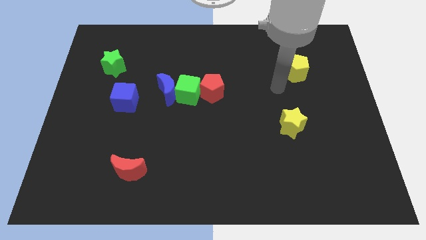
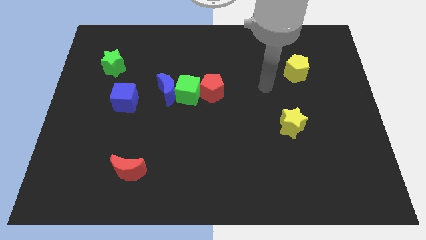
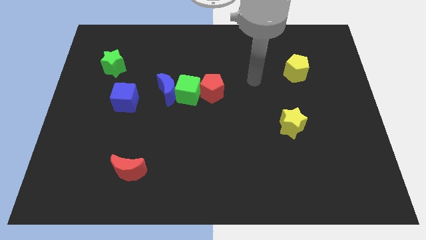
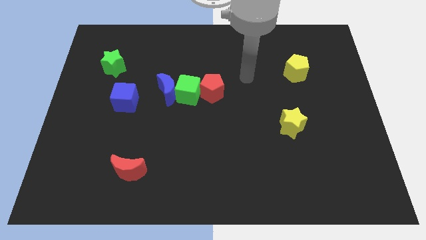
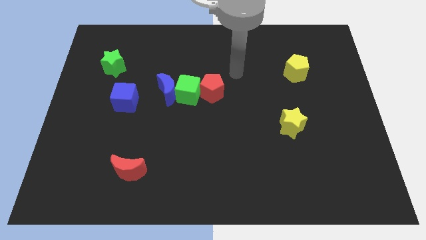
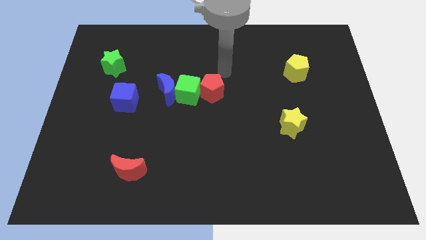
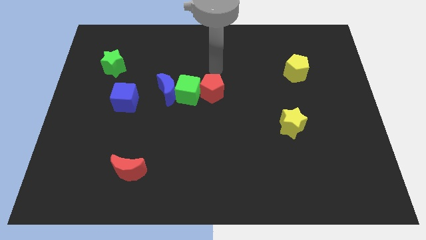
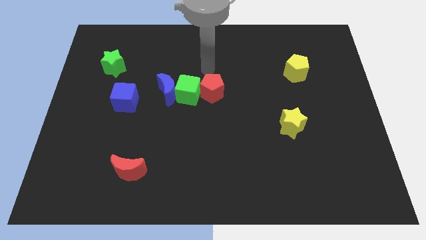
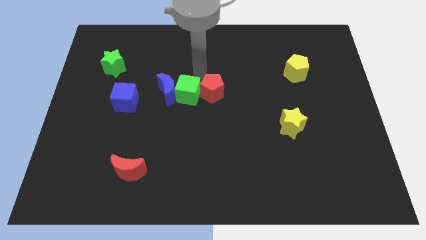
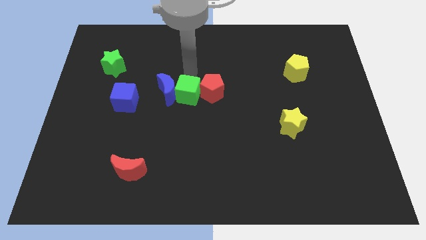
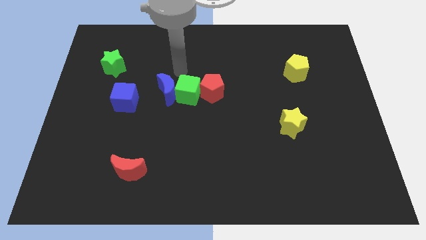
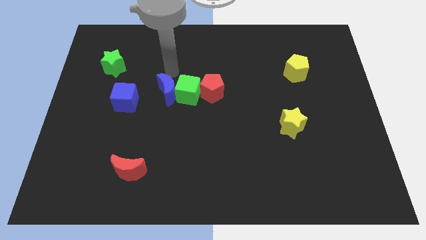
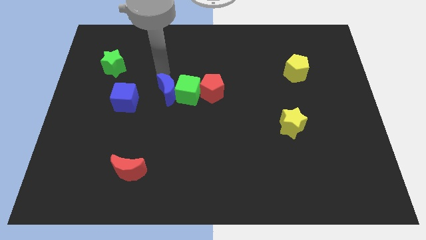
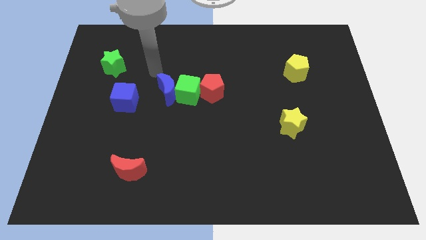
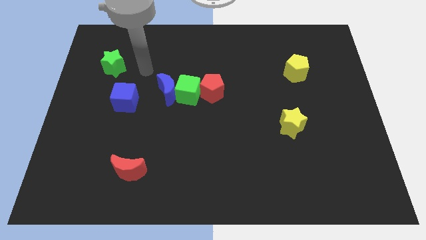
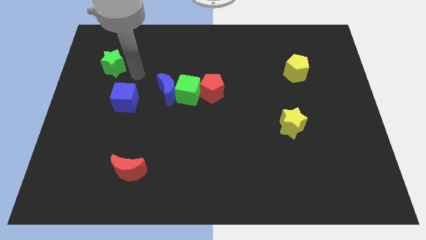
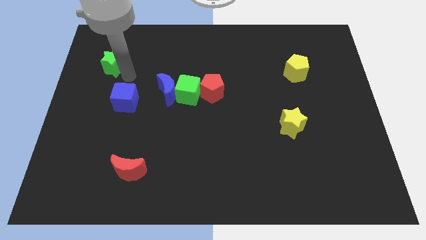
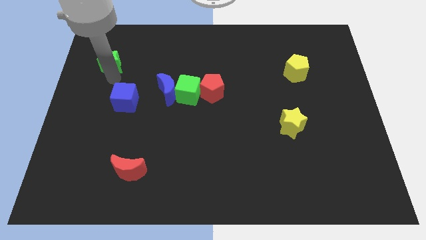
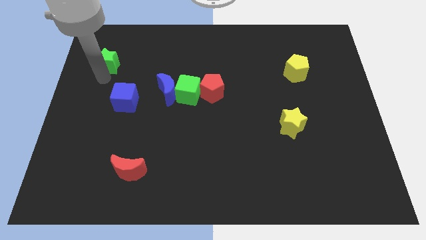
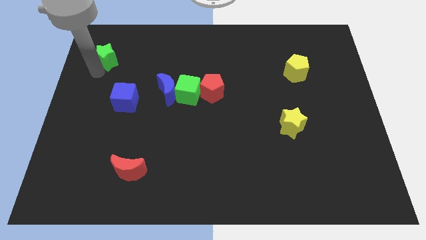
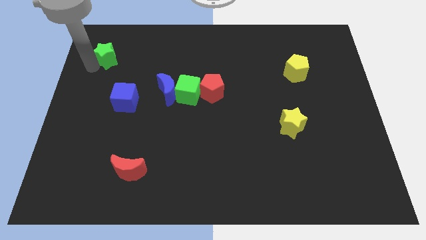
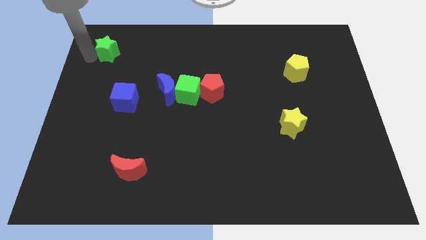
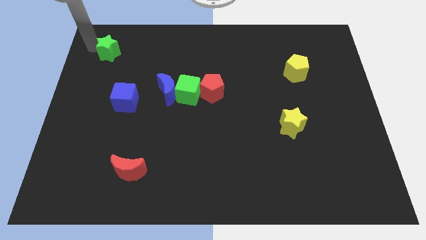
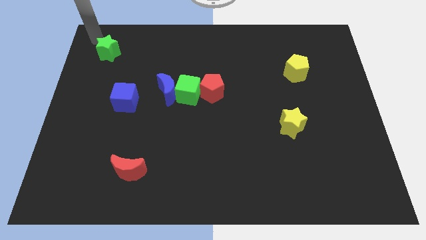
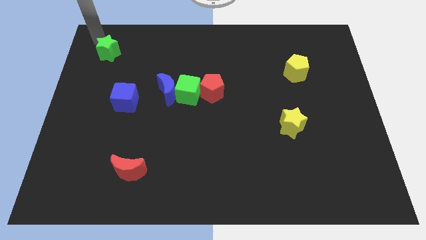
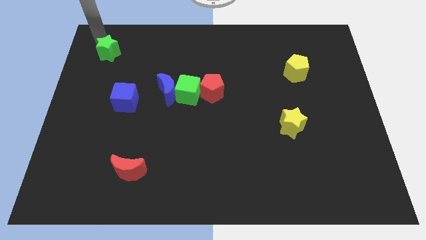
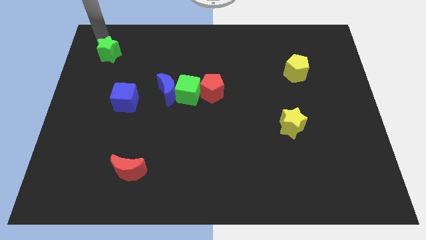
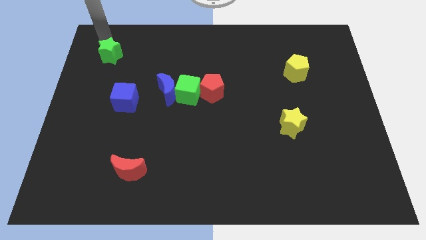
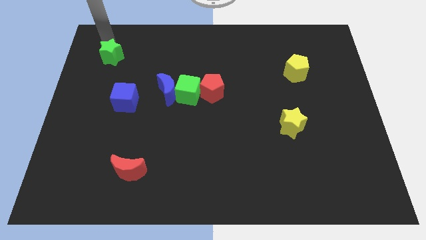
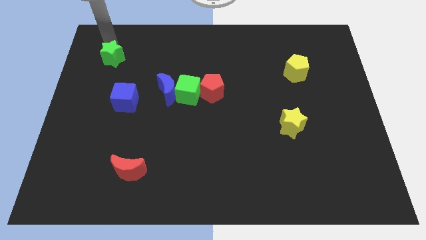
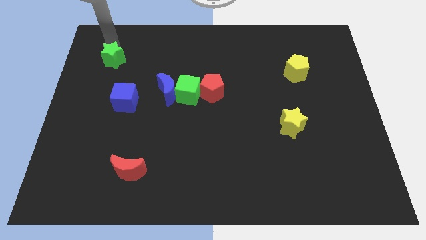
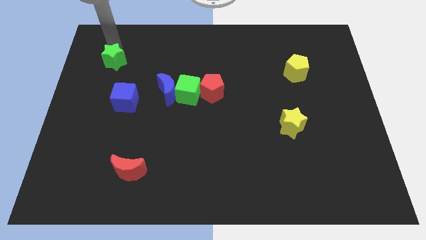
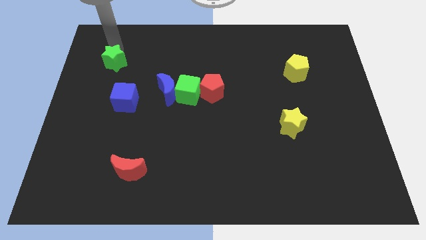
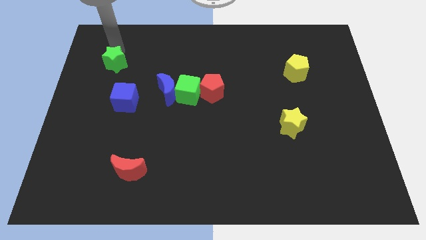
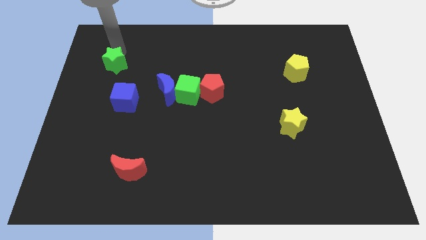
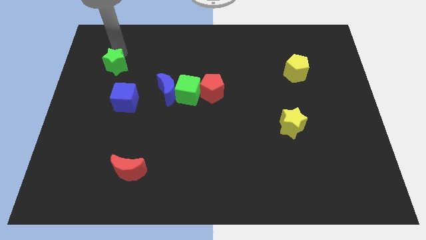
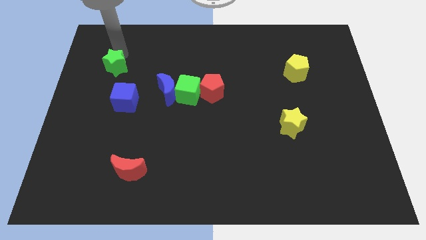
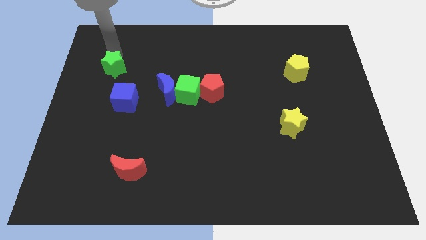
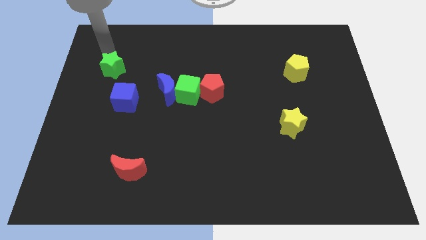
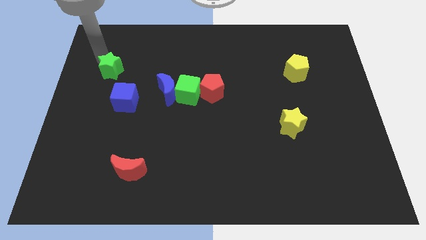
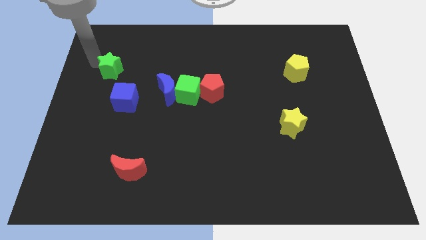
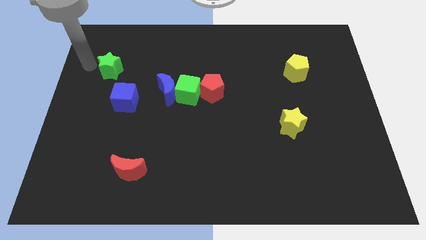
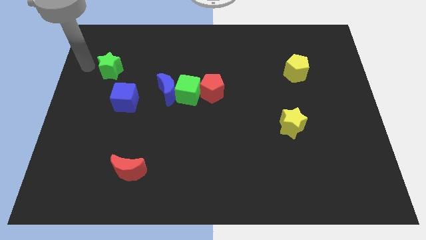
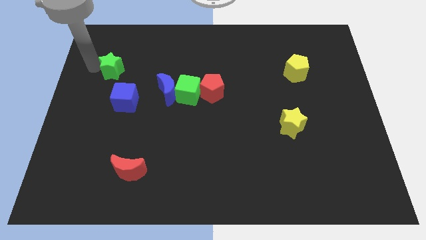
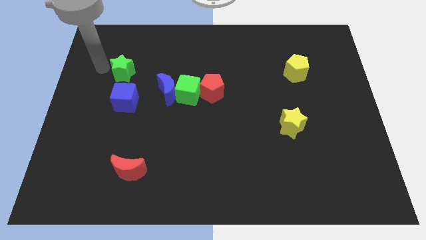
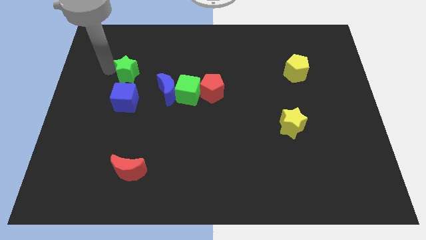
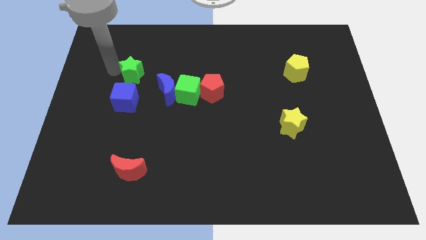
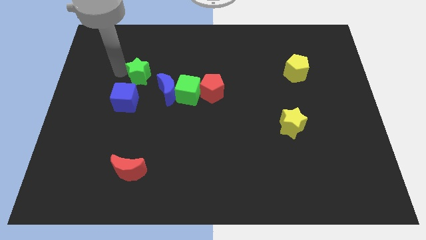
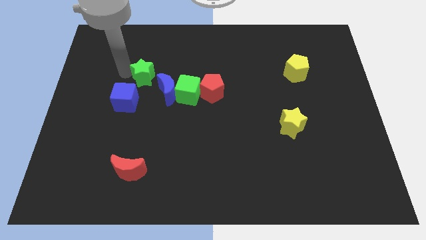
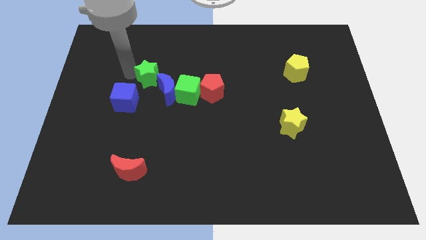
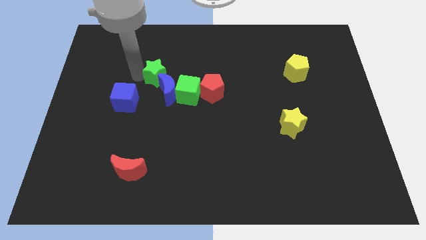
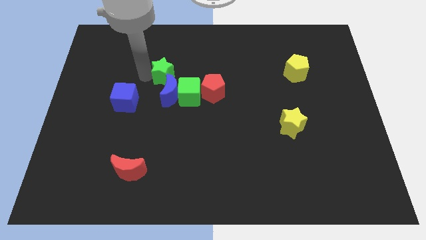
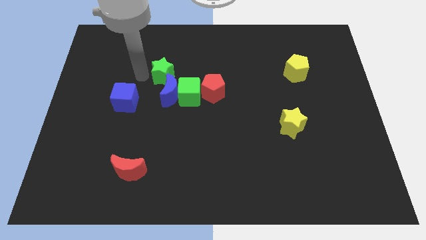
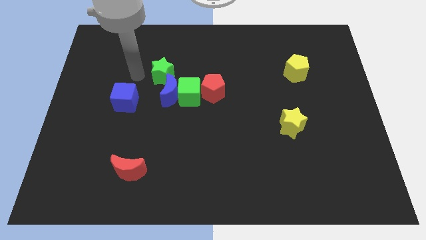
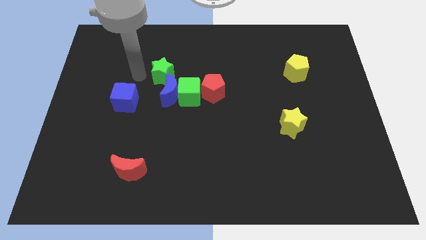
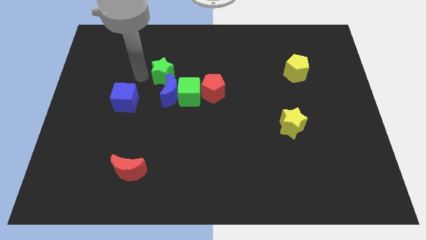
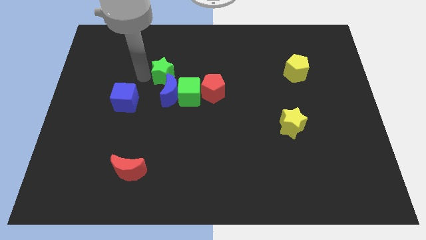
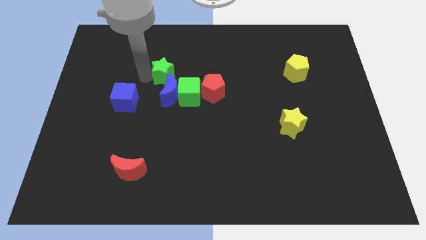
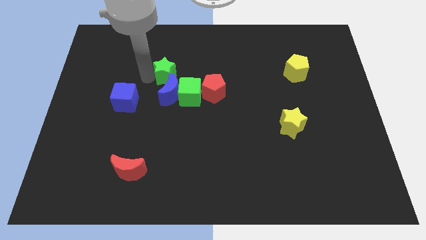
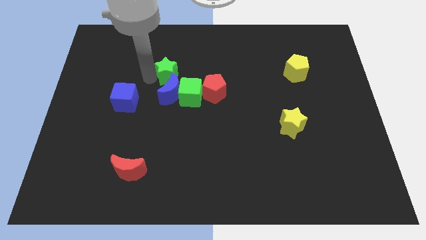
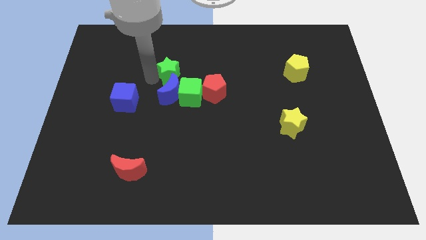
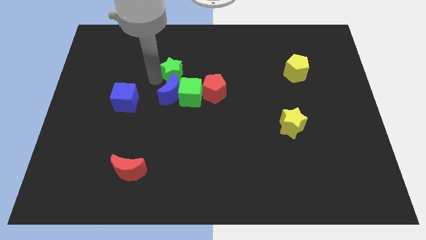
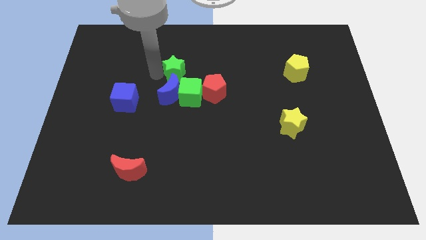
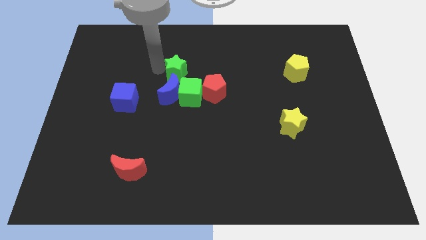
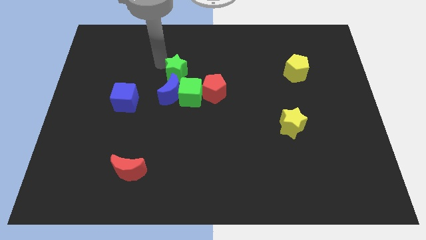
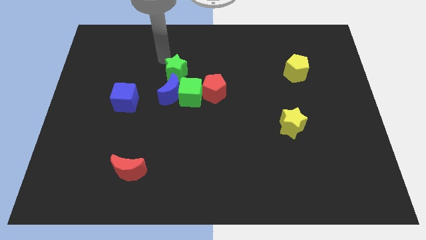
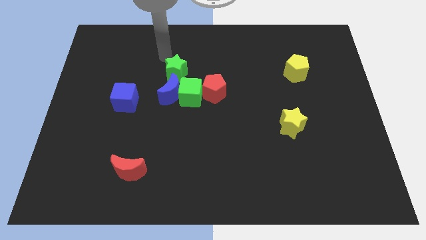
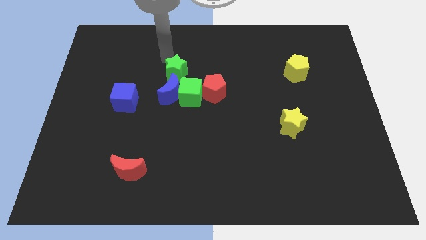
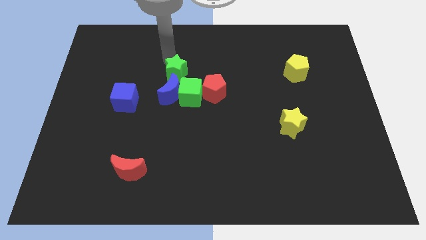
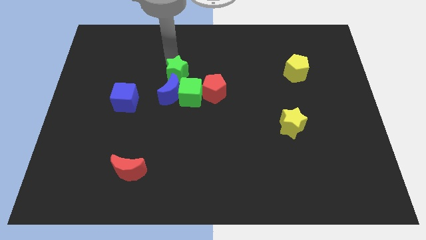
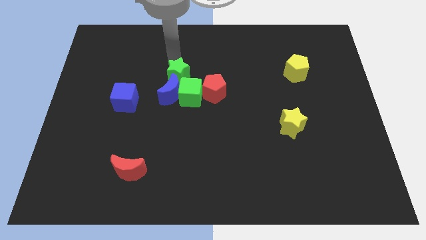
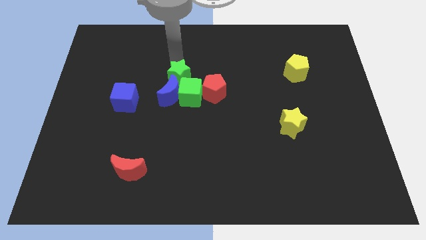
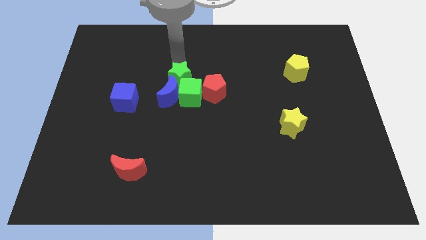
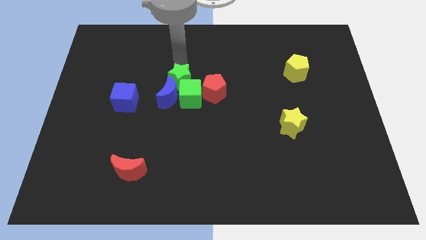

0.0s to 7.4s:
slide the green star next to the green cube

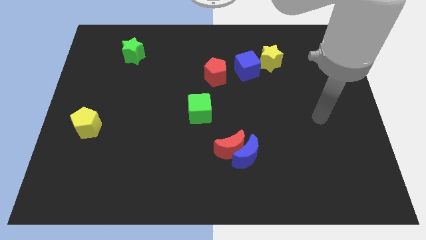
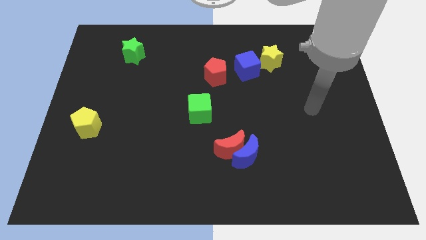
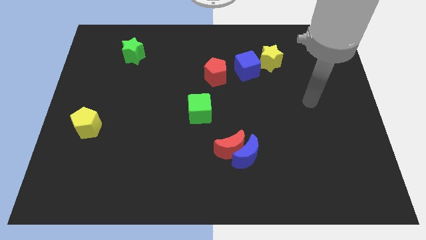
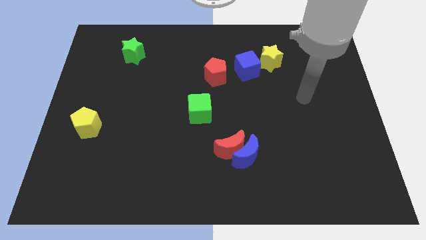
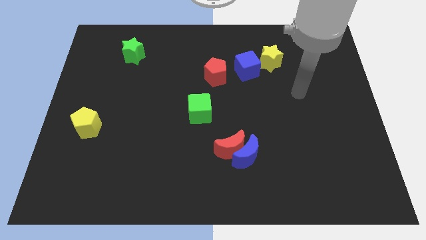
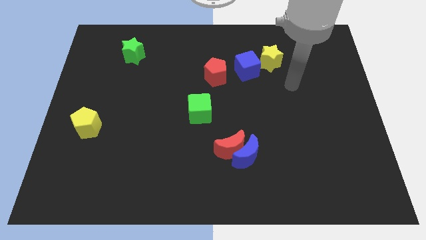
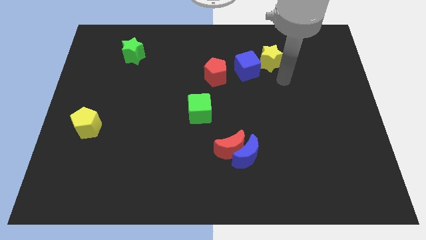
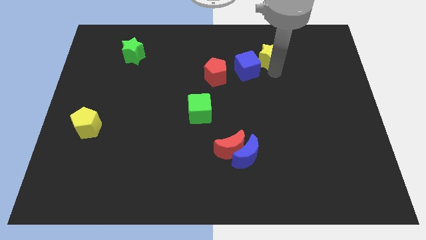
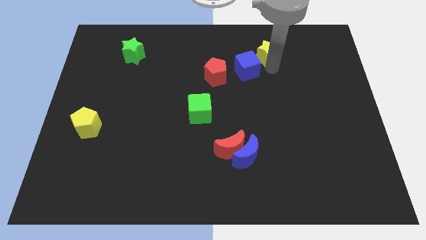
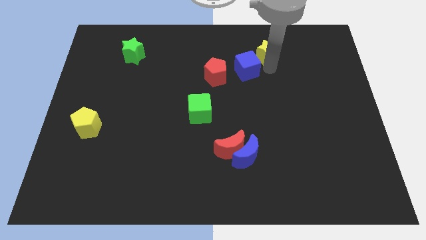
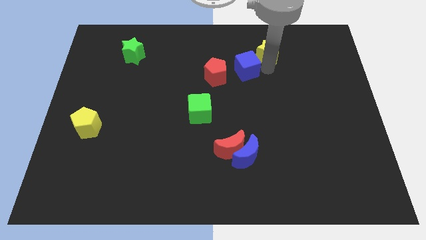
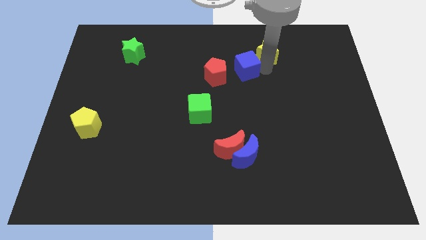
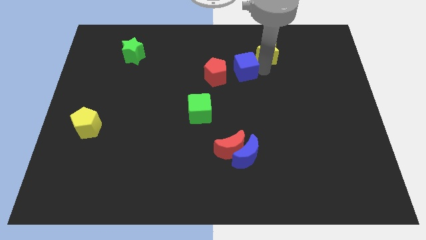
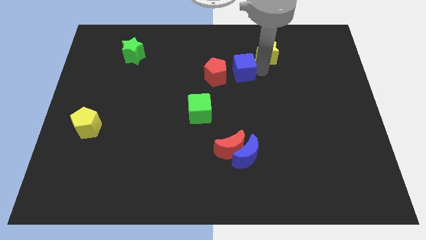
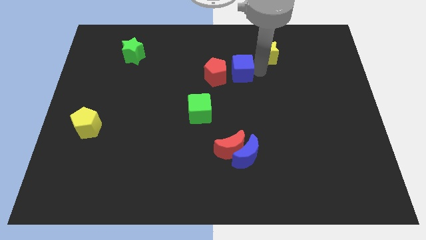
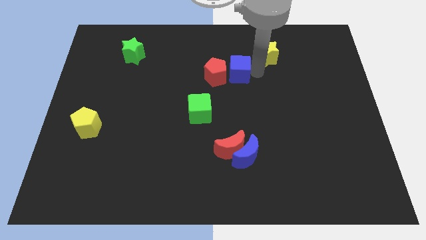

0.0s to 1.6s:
put the blue cube next to the red pentagon
